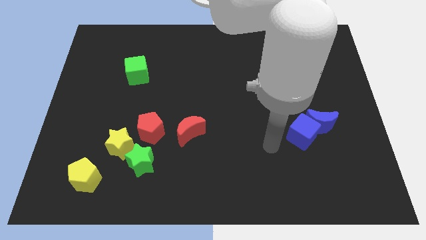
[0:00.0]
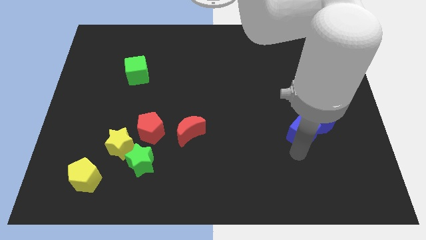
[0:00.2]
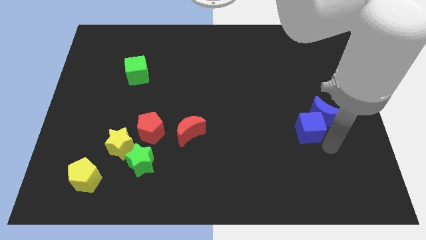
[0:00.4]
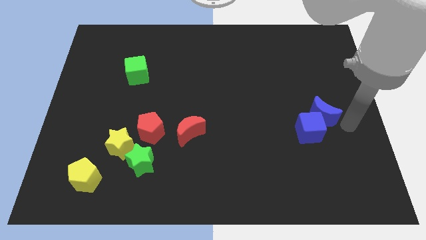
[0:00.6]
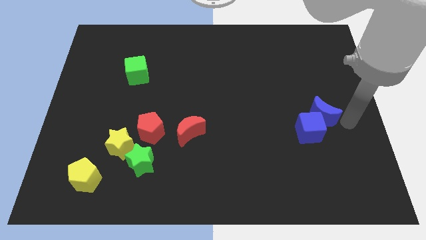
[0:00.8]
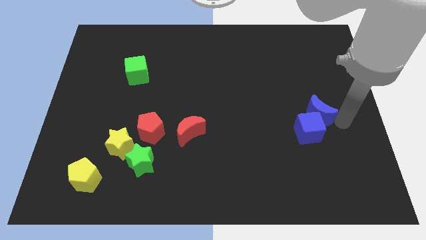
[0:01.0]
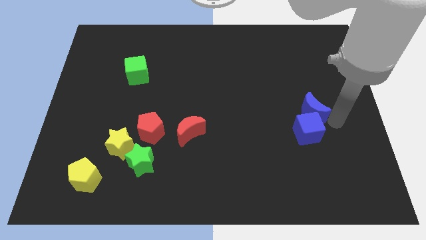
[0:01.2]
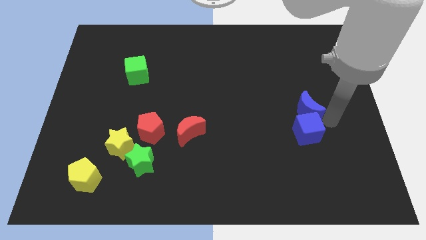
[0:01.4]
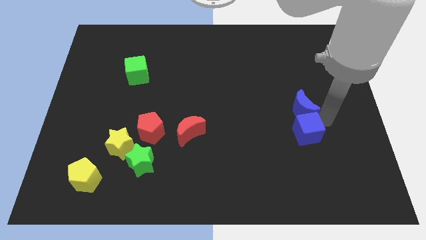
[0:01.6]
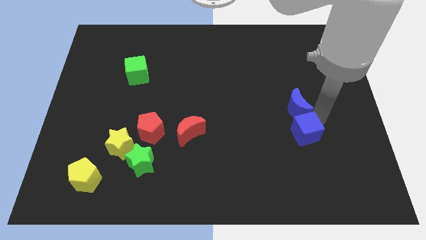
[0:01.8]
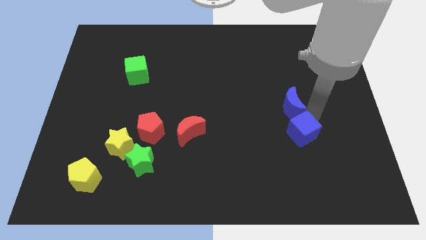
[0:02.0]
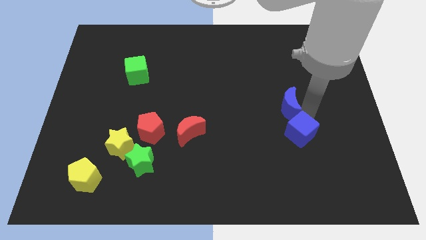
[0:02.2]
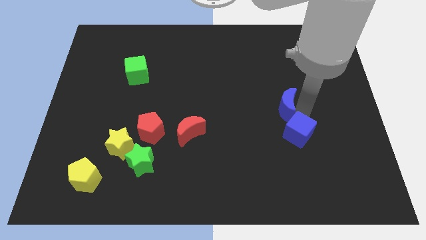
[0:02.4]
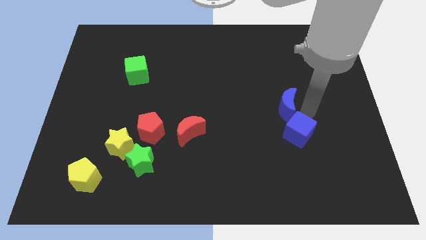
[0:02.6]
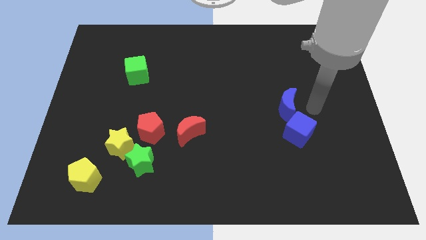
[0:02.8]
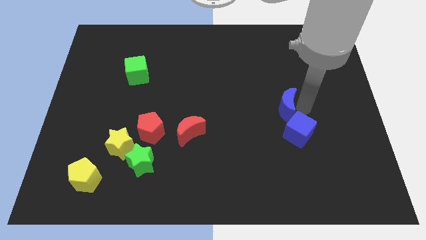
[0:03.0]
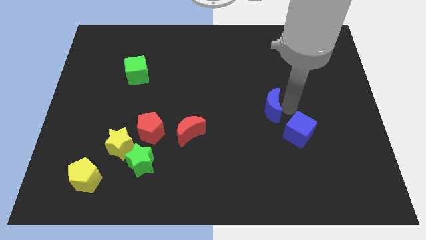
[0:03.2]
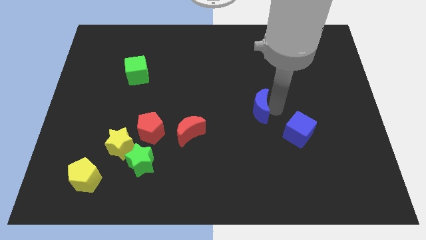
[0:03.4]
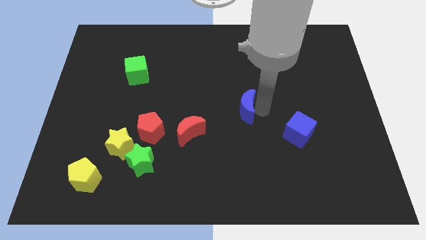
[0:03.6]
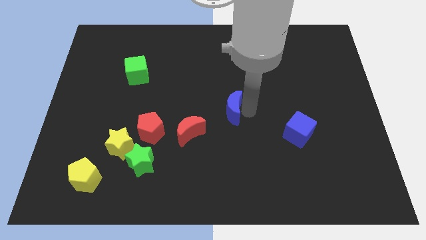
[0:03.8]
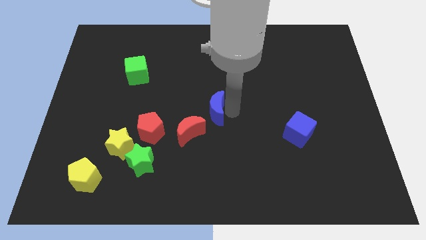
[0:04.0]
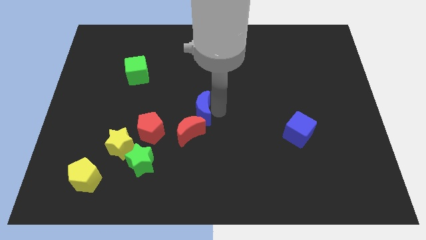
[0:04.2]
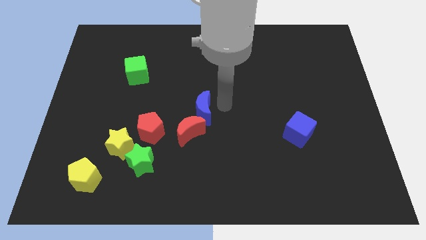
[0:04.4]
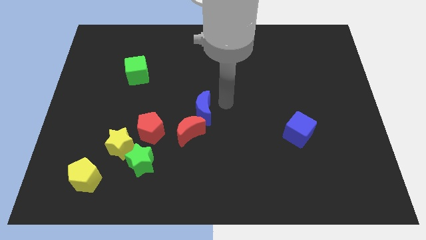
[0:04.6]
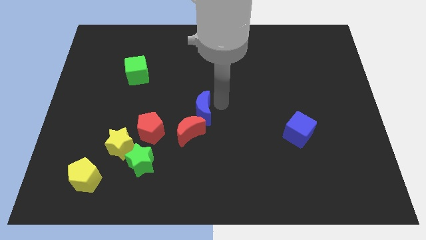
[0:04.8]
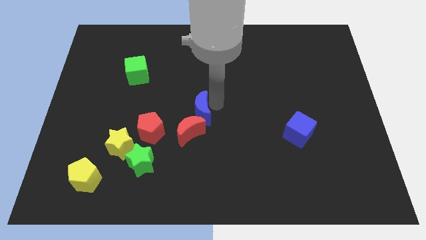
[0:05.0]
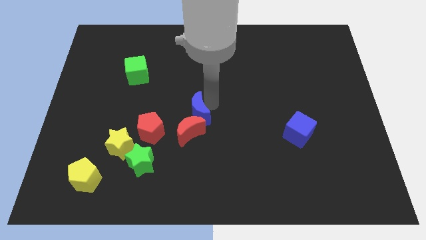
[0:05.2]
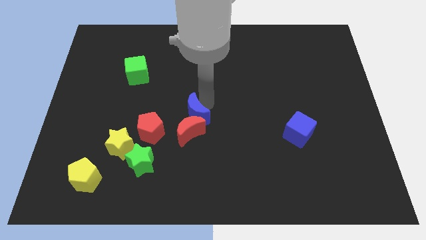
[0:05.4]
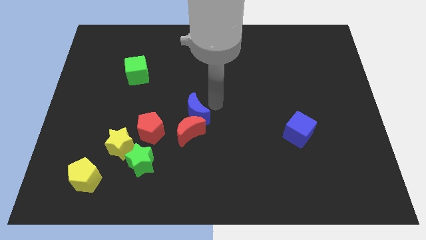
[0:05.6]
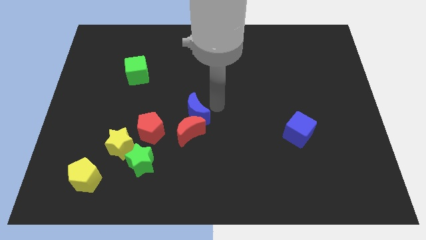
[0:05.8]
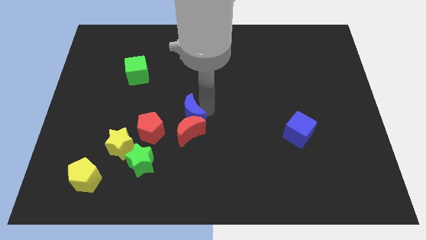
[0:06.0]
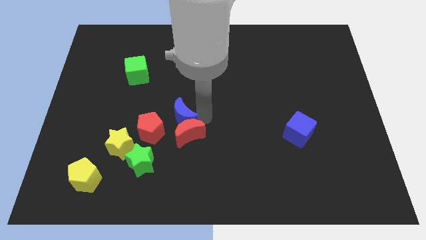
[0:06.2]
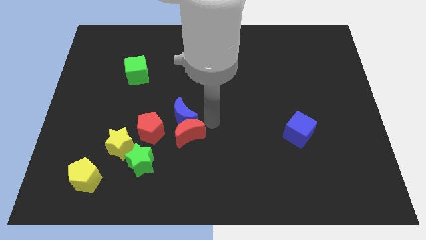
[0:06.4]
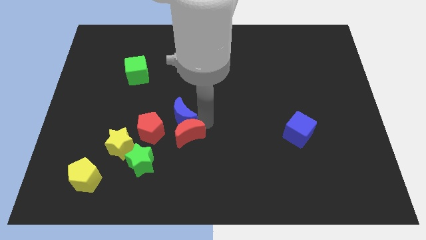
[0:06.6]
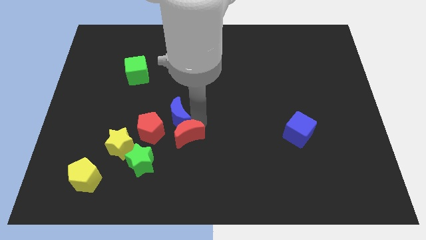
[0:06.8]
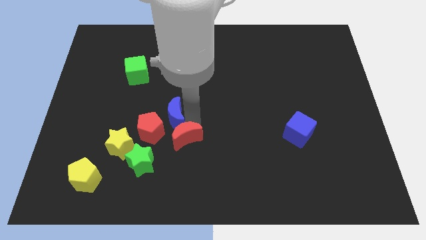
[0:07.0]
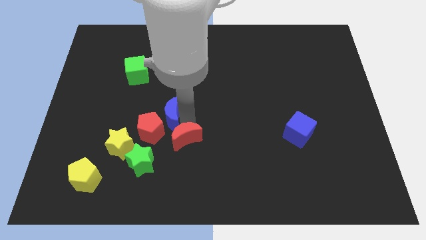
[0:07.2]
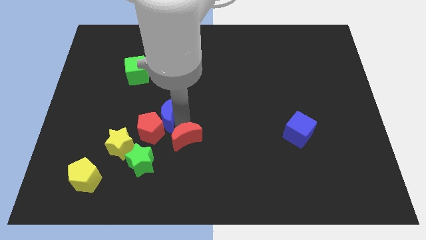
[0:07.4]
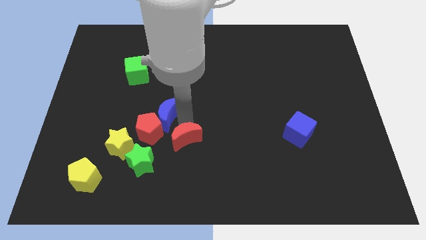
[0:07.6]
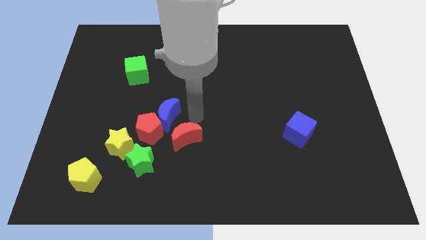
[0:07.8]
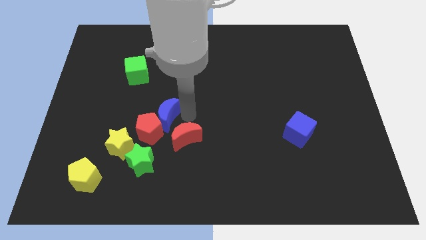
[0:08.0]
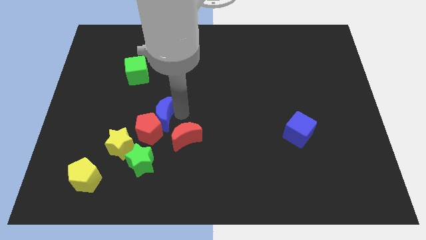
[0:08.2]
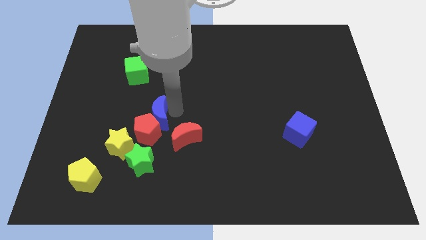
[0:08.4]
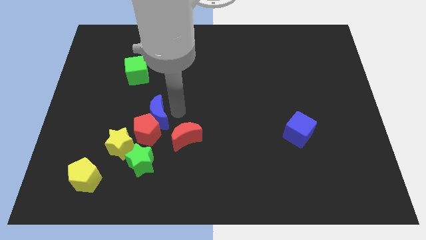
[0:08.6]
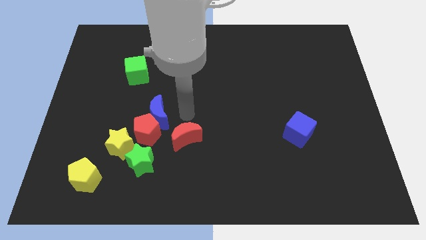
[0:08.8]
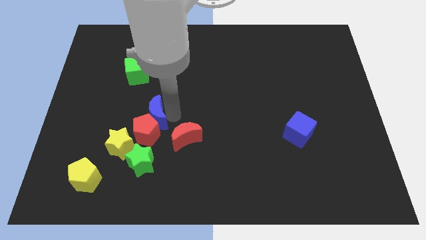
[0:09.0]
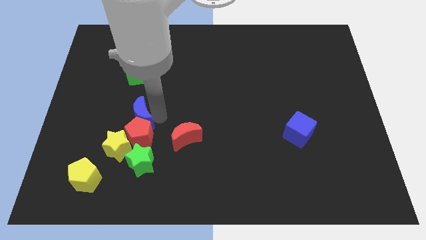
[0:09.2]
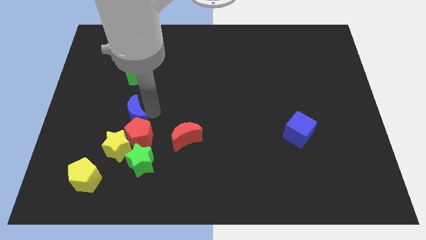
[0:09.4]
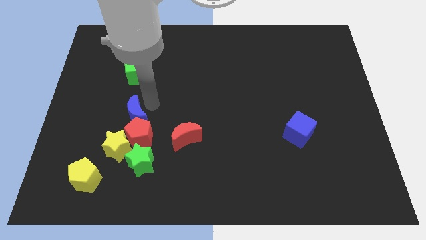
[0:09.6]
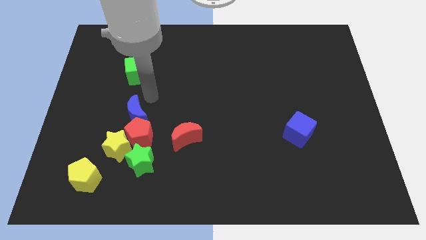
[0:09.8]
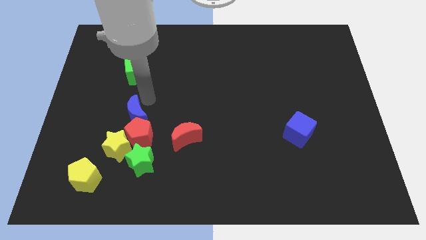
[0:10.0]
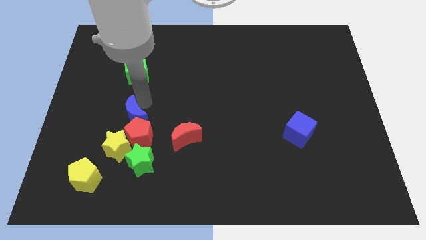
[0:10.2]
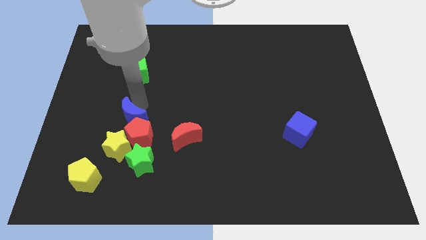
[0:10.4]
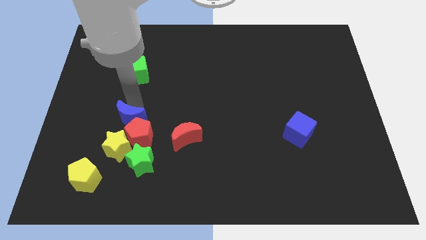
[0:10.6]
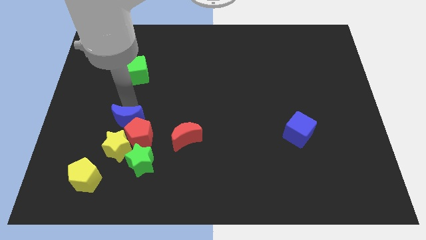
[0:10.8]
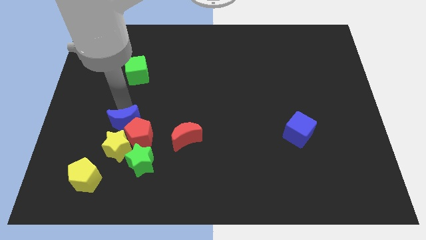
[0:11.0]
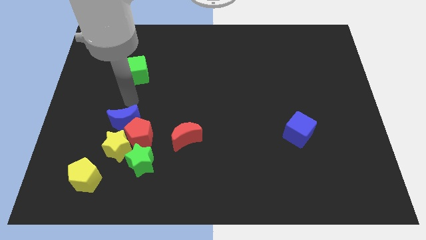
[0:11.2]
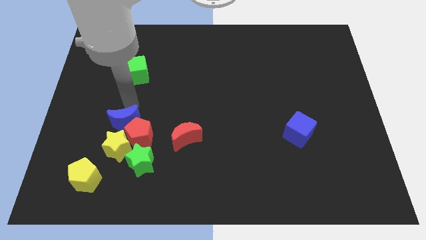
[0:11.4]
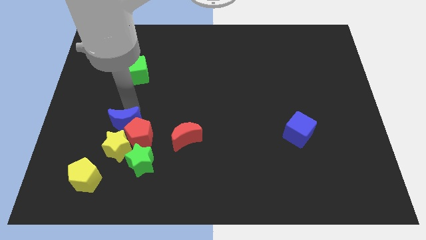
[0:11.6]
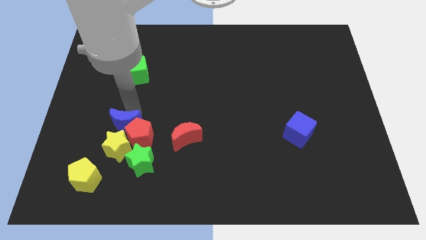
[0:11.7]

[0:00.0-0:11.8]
push the blue moon close to the yellow star
